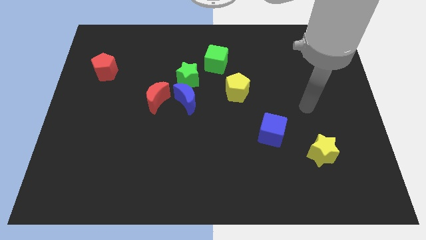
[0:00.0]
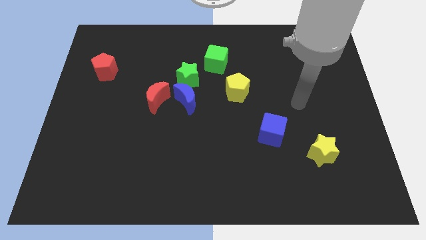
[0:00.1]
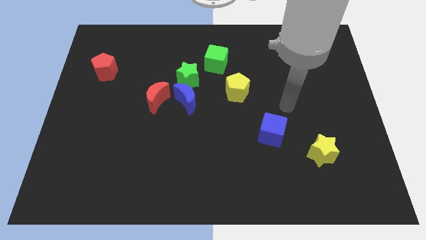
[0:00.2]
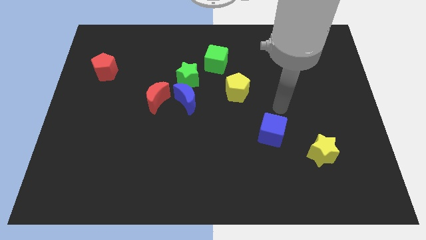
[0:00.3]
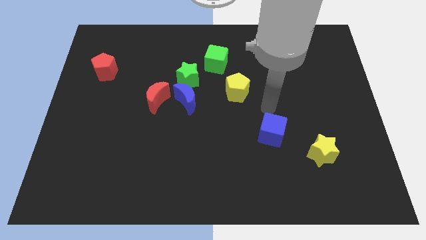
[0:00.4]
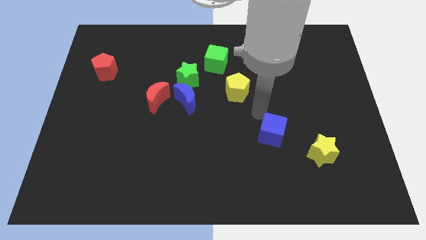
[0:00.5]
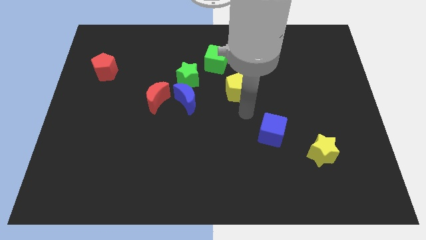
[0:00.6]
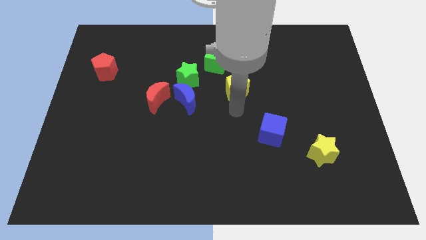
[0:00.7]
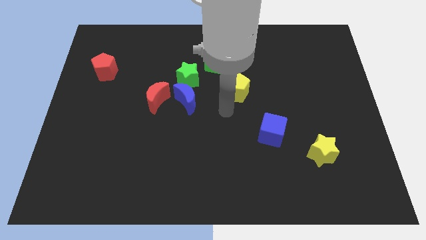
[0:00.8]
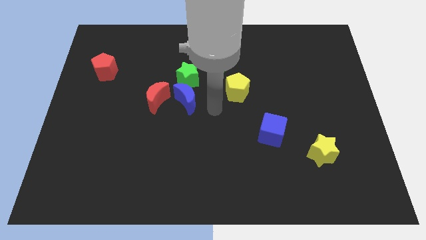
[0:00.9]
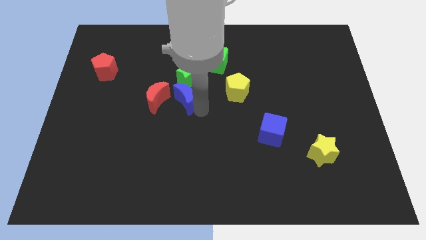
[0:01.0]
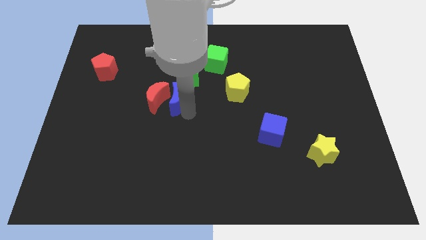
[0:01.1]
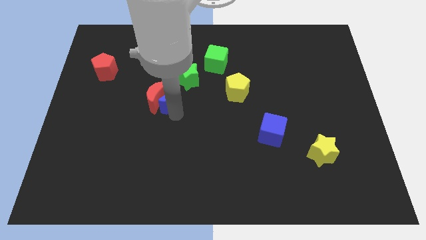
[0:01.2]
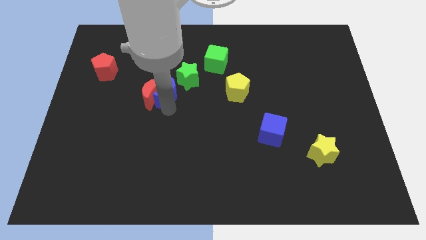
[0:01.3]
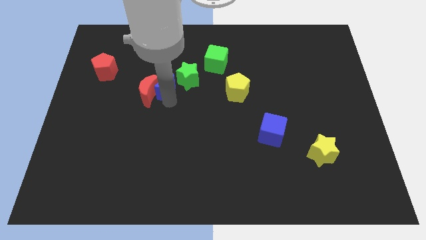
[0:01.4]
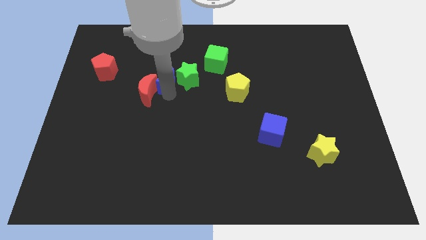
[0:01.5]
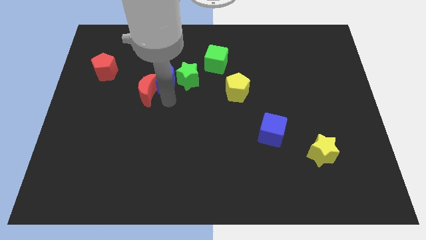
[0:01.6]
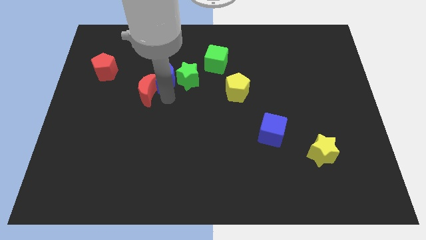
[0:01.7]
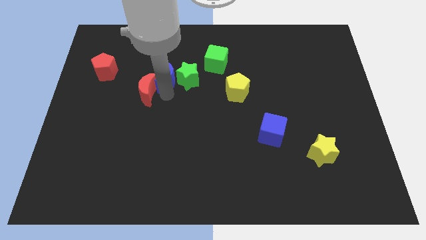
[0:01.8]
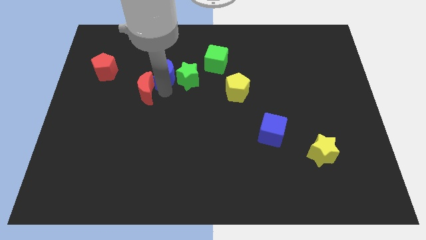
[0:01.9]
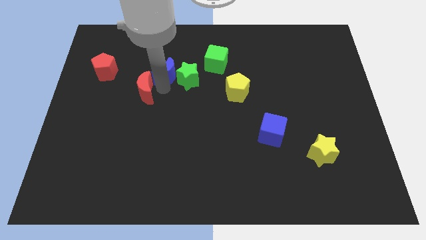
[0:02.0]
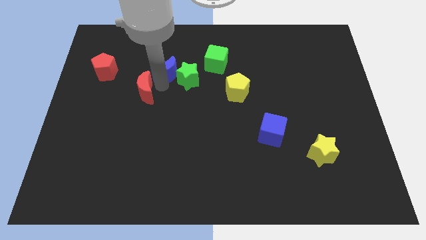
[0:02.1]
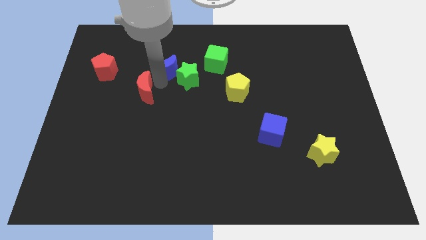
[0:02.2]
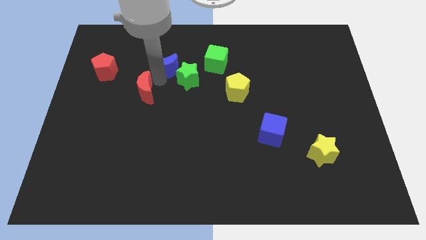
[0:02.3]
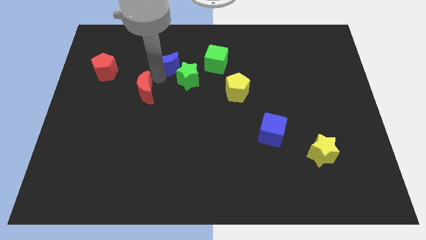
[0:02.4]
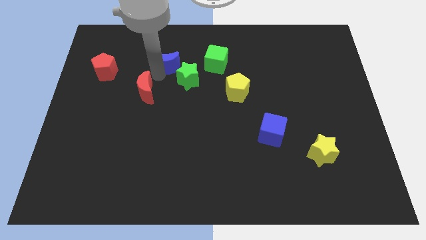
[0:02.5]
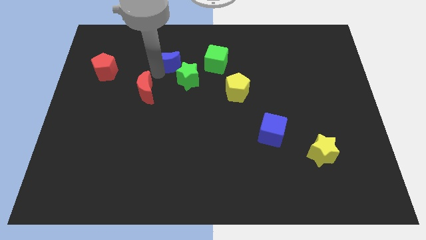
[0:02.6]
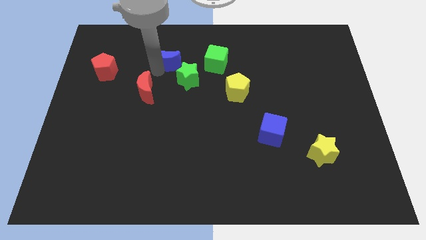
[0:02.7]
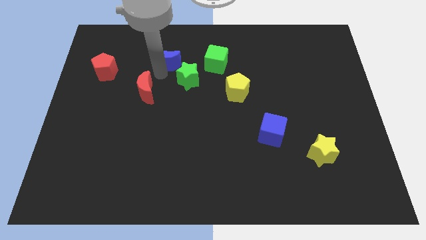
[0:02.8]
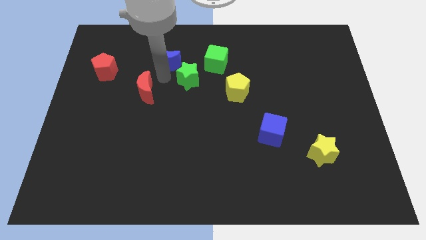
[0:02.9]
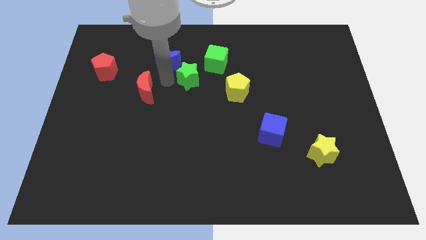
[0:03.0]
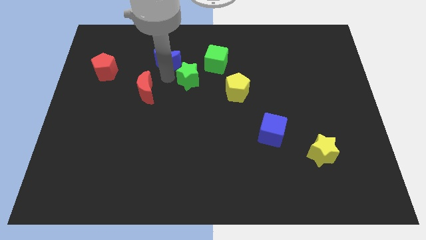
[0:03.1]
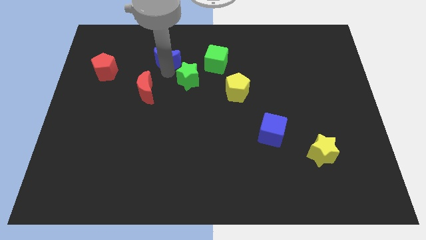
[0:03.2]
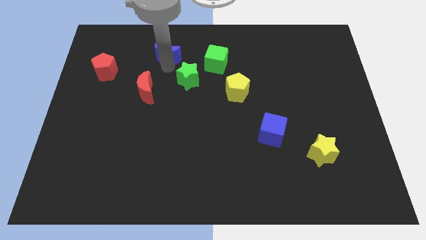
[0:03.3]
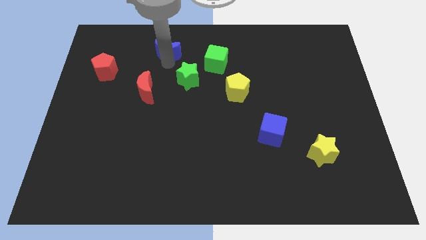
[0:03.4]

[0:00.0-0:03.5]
separate the blue moon from the green star and red moon

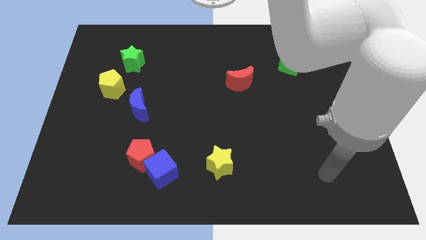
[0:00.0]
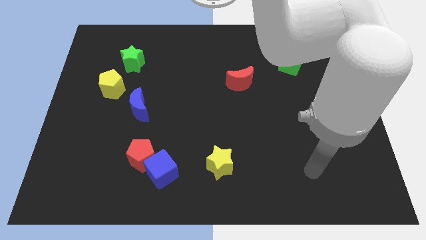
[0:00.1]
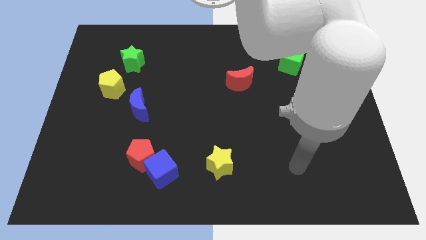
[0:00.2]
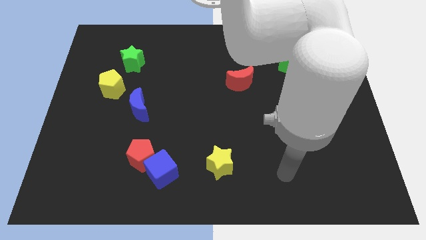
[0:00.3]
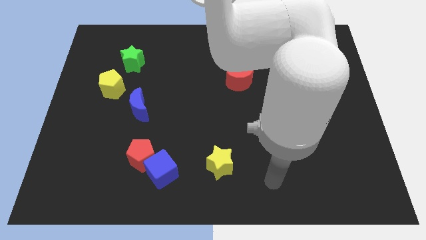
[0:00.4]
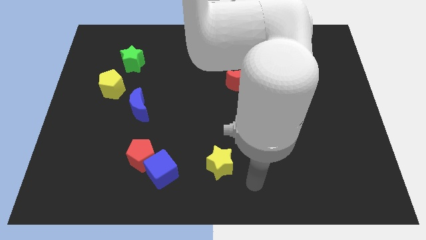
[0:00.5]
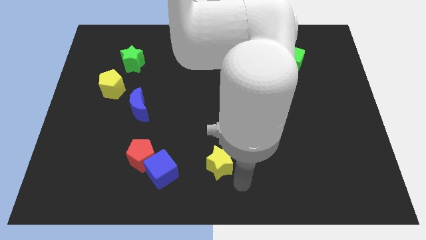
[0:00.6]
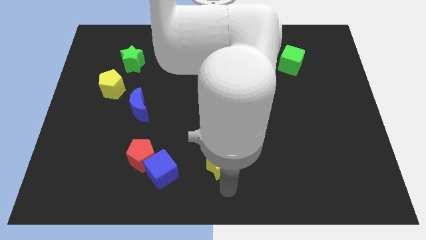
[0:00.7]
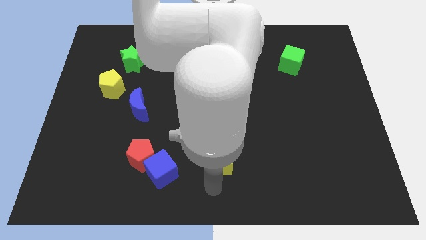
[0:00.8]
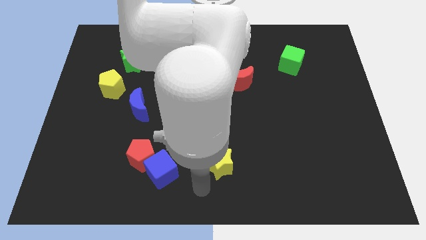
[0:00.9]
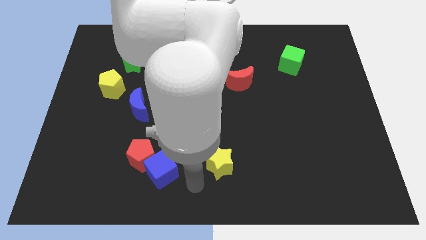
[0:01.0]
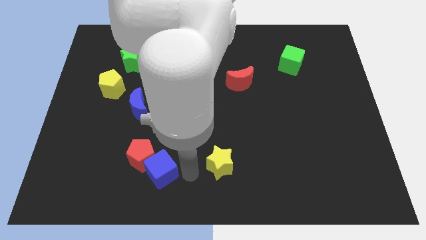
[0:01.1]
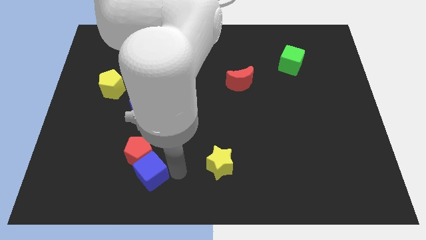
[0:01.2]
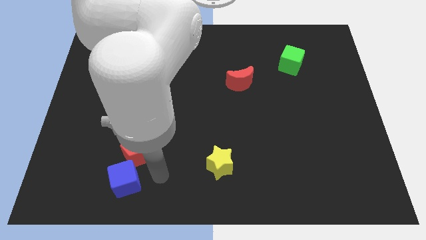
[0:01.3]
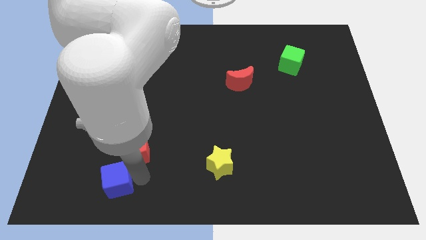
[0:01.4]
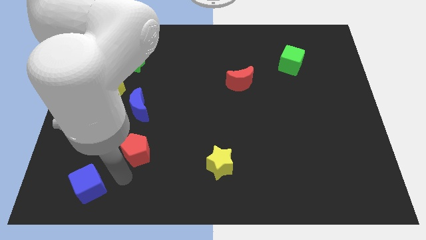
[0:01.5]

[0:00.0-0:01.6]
move the red pentagon away from the blue cube

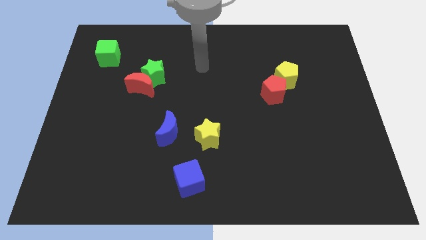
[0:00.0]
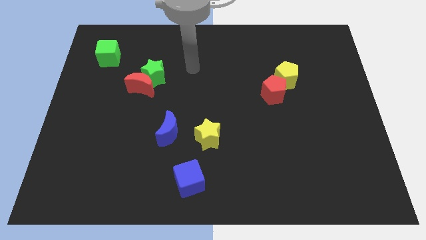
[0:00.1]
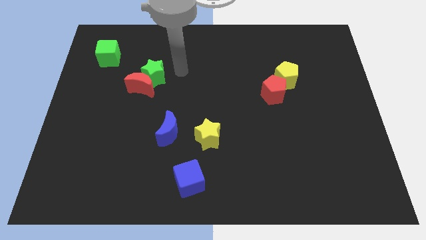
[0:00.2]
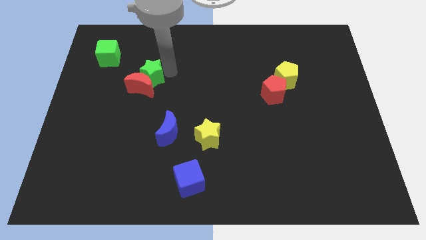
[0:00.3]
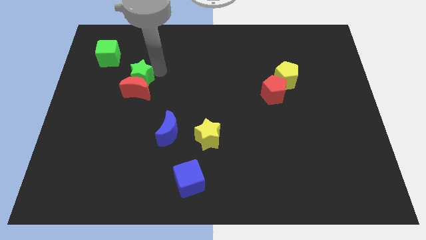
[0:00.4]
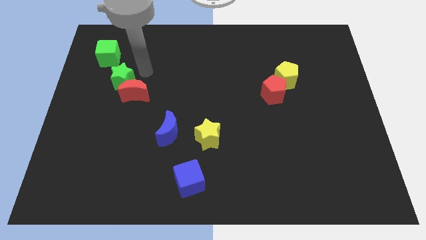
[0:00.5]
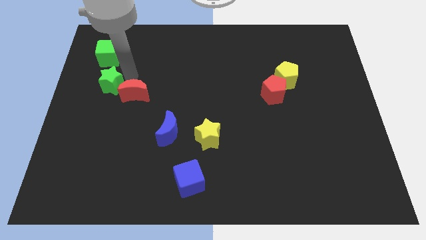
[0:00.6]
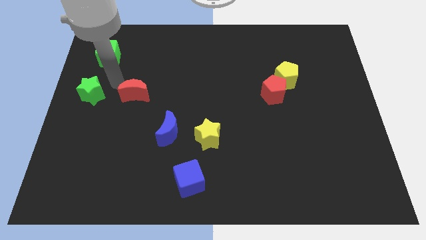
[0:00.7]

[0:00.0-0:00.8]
separate the red moon from the green star

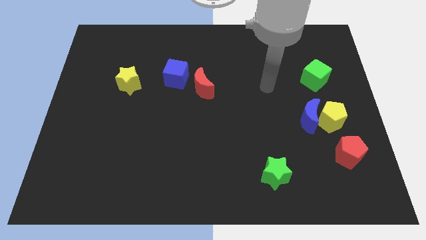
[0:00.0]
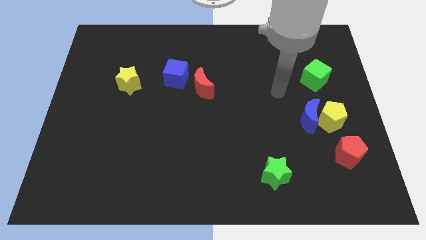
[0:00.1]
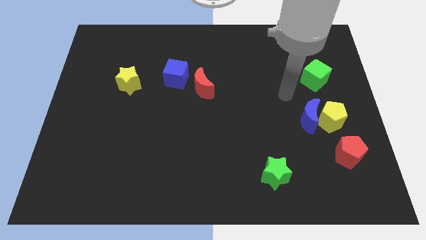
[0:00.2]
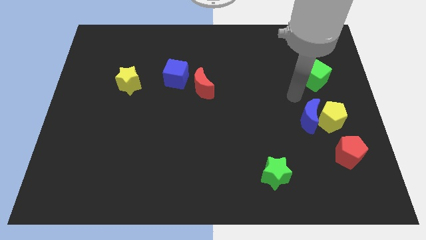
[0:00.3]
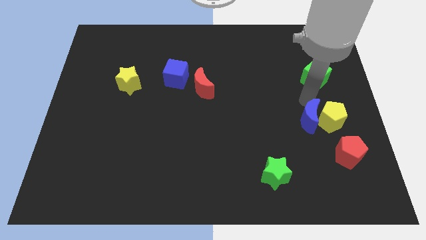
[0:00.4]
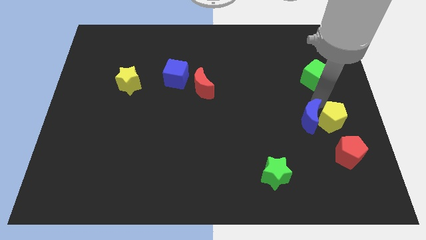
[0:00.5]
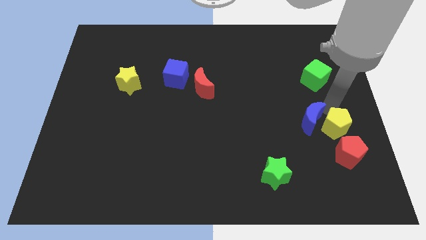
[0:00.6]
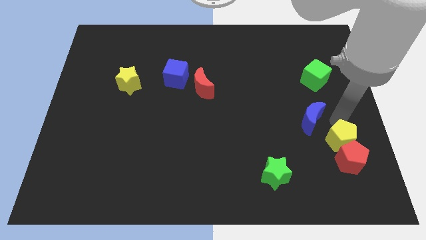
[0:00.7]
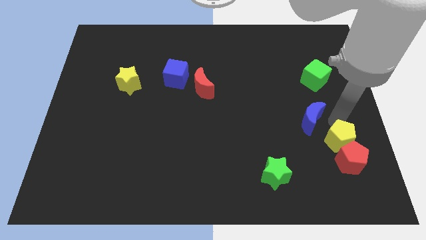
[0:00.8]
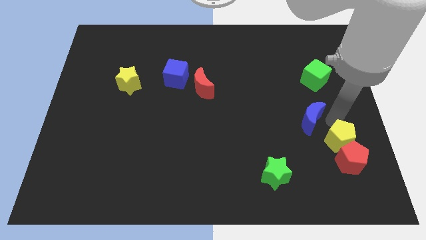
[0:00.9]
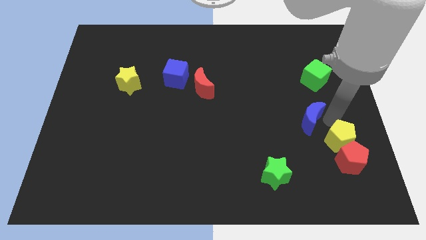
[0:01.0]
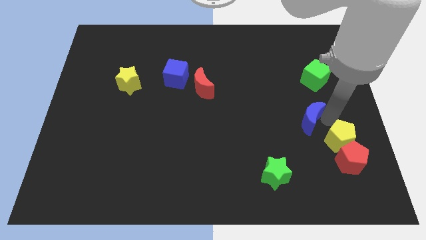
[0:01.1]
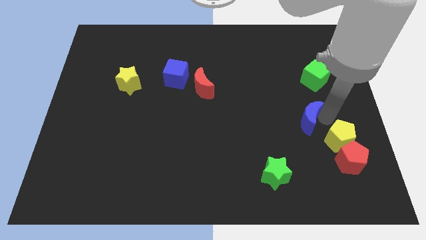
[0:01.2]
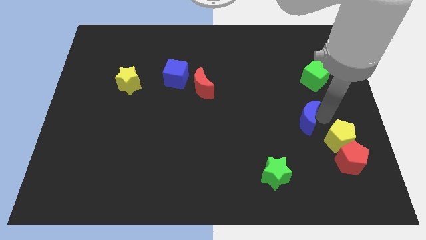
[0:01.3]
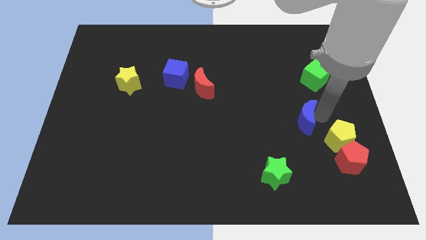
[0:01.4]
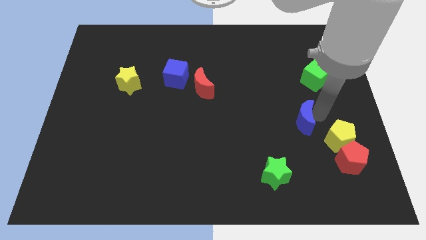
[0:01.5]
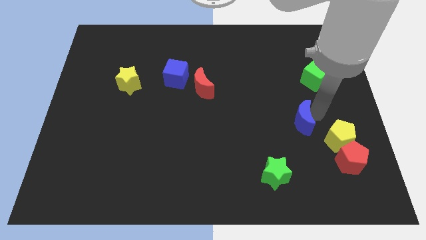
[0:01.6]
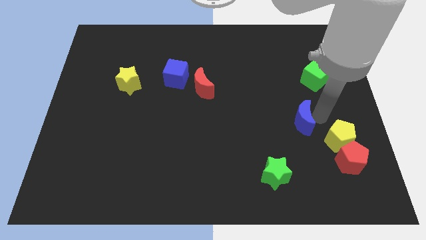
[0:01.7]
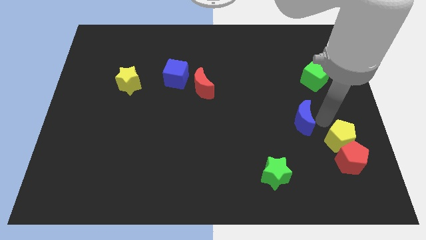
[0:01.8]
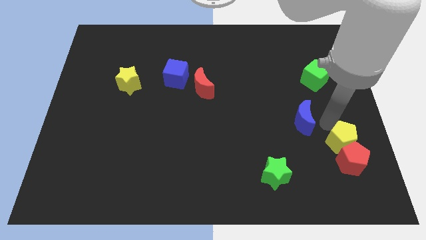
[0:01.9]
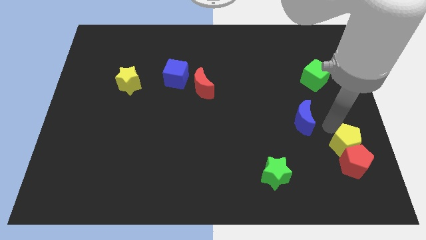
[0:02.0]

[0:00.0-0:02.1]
move the blue moon away from the yellow pentagon

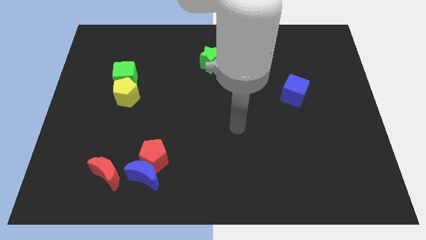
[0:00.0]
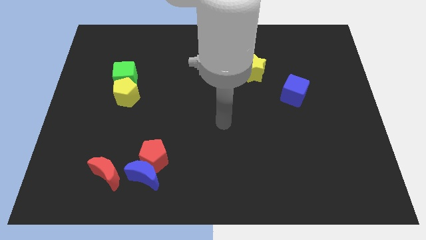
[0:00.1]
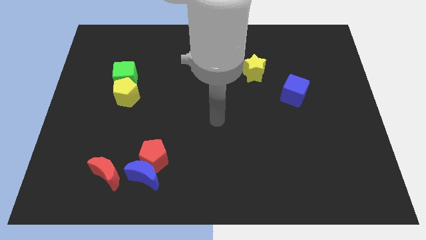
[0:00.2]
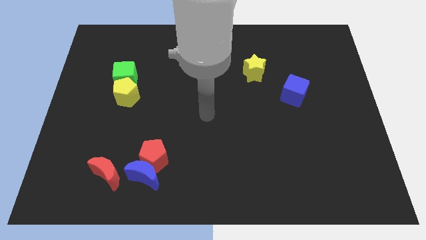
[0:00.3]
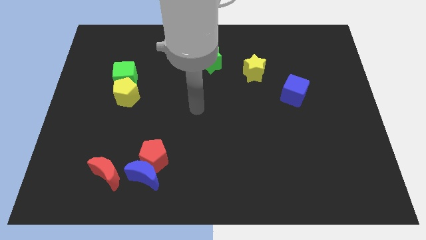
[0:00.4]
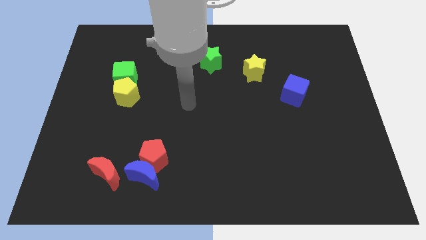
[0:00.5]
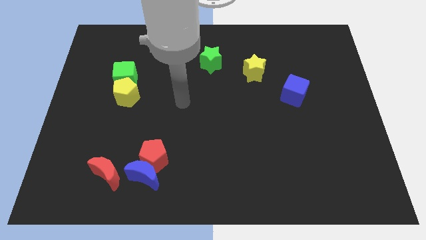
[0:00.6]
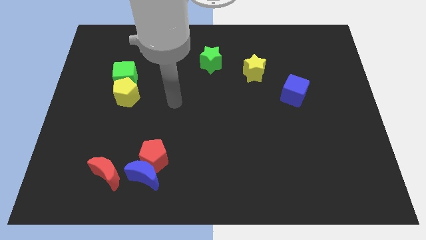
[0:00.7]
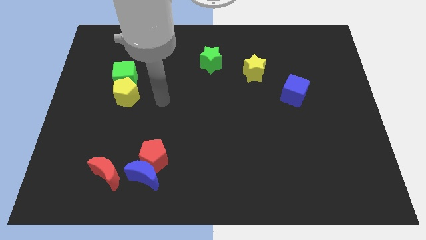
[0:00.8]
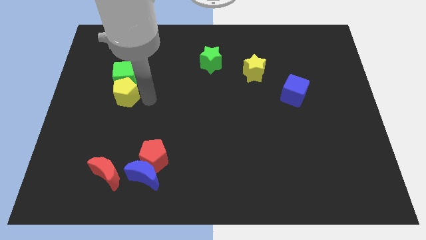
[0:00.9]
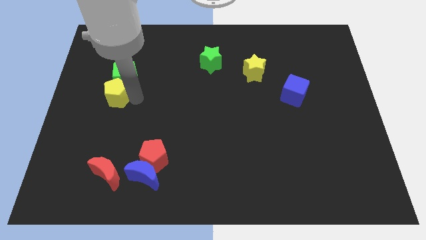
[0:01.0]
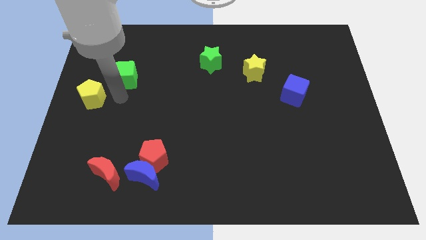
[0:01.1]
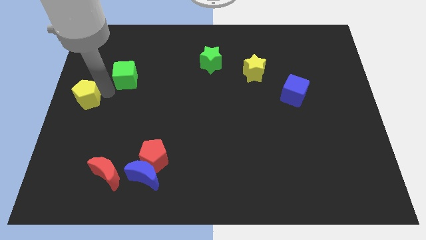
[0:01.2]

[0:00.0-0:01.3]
separate the green cube from the yellow pentagon
